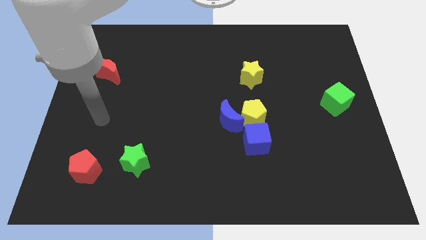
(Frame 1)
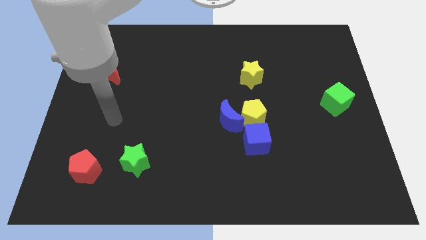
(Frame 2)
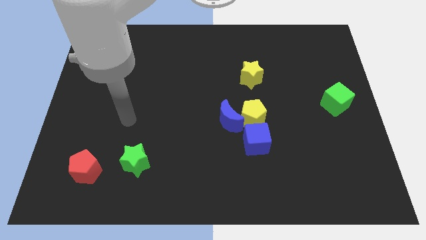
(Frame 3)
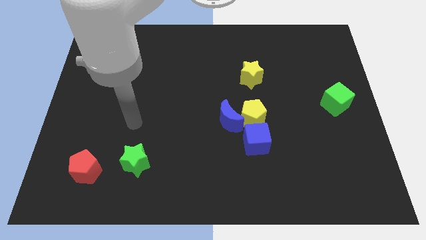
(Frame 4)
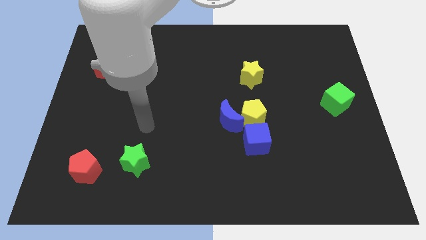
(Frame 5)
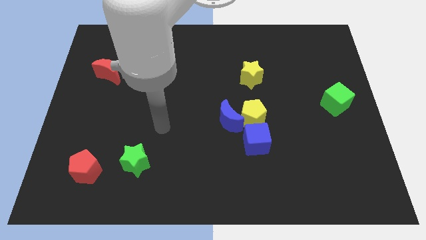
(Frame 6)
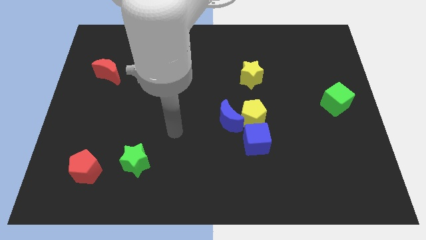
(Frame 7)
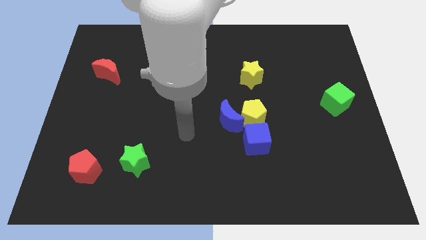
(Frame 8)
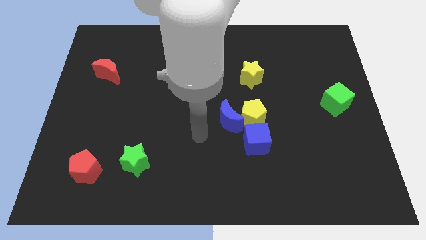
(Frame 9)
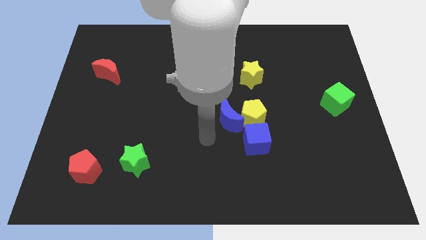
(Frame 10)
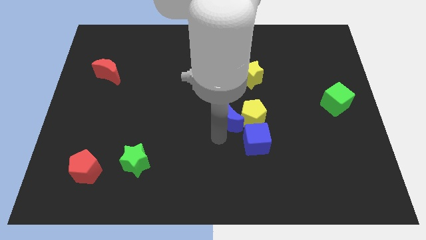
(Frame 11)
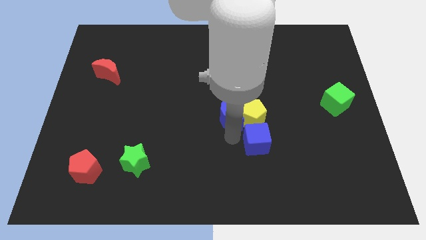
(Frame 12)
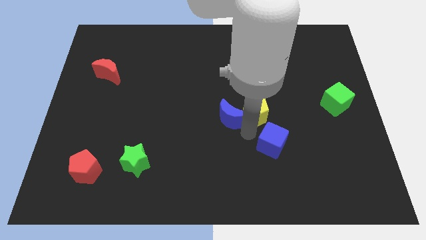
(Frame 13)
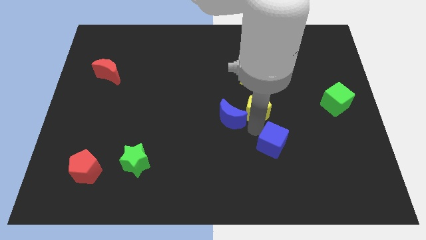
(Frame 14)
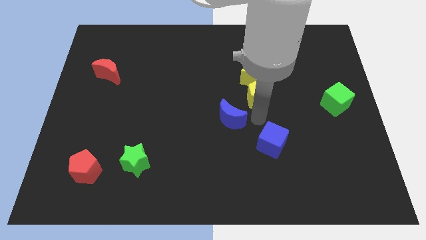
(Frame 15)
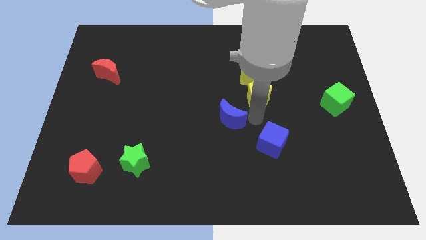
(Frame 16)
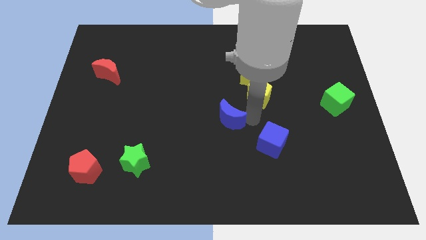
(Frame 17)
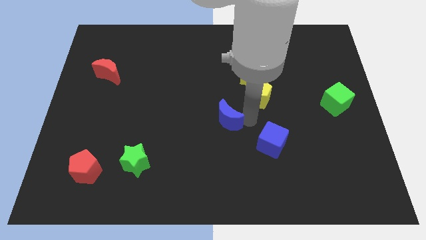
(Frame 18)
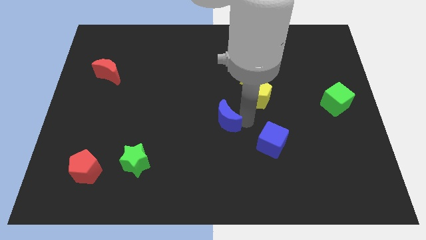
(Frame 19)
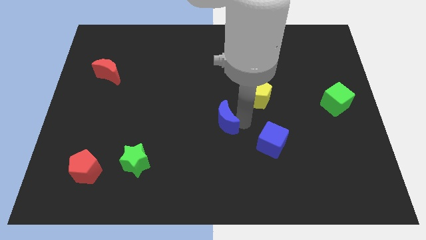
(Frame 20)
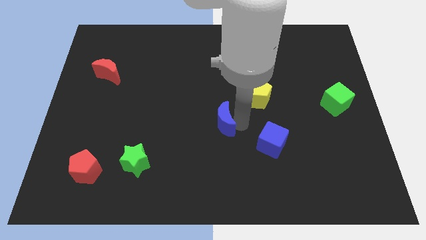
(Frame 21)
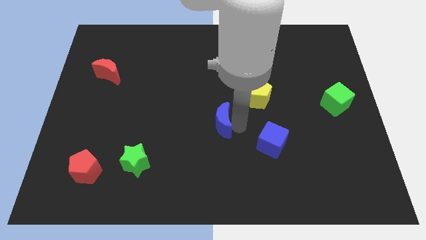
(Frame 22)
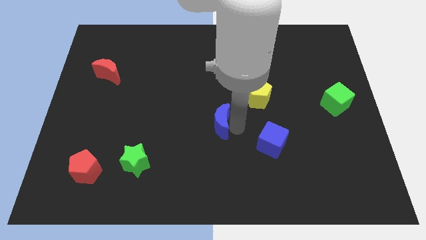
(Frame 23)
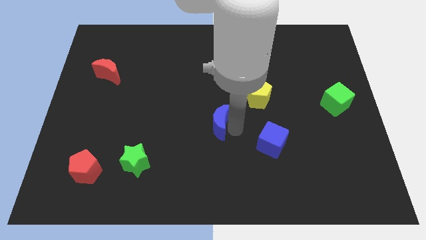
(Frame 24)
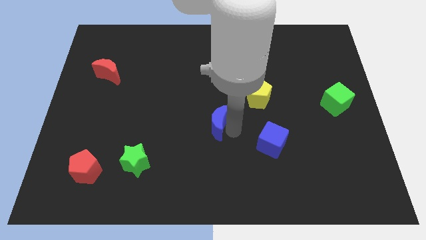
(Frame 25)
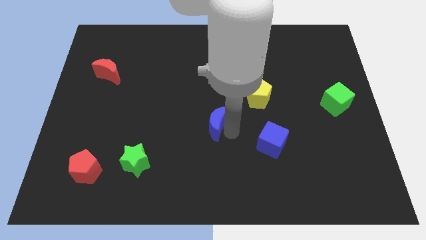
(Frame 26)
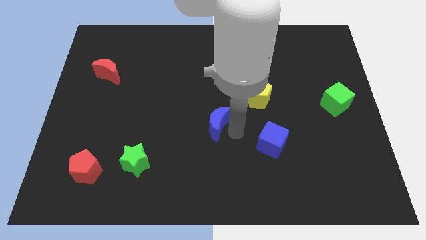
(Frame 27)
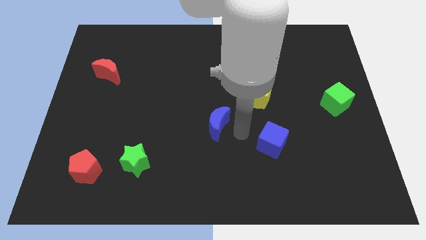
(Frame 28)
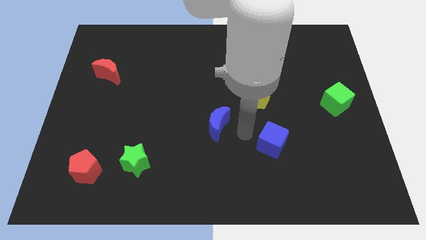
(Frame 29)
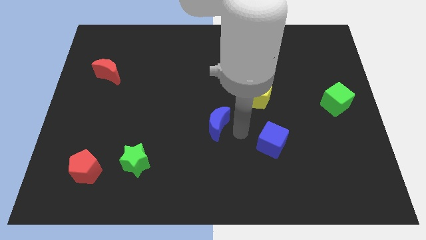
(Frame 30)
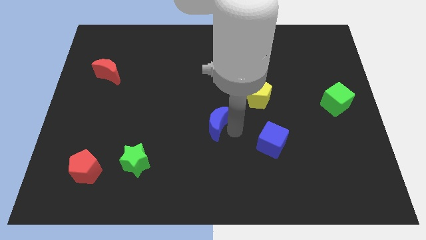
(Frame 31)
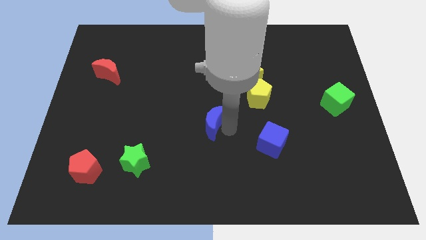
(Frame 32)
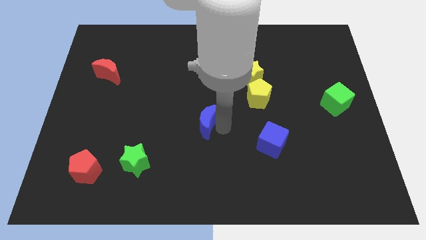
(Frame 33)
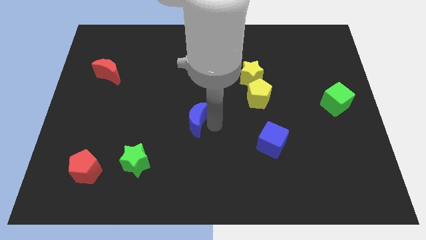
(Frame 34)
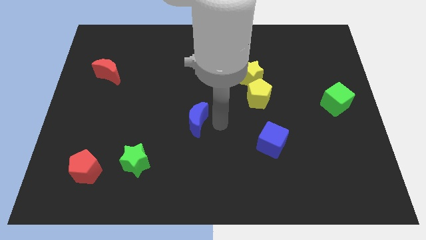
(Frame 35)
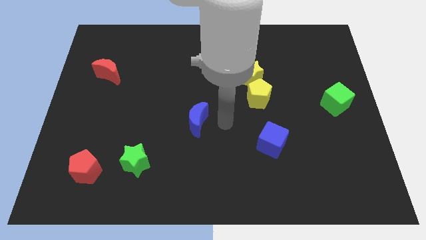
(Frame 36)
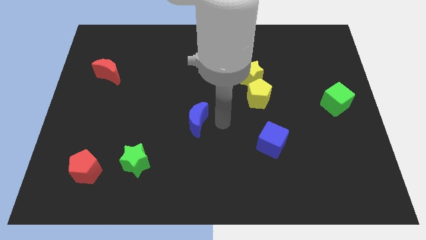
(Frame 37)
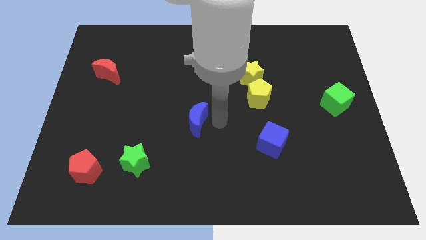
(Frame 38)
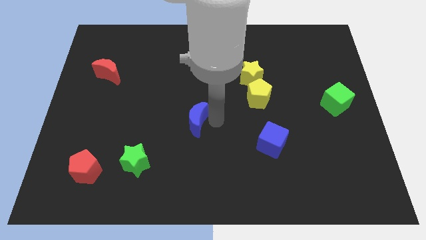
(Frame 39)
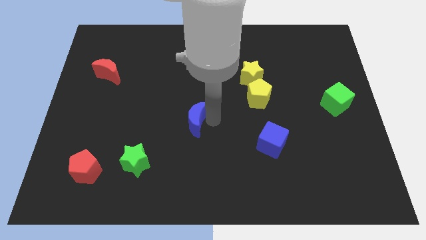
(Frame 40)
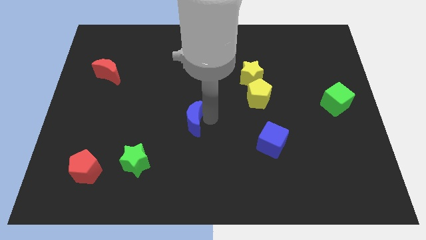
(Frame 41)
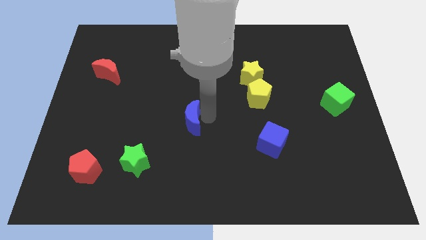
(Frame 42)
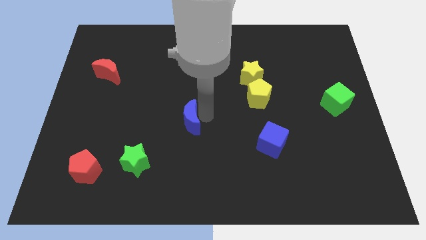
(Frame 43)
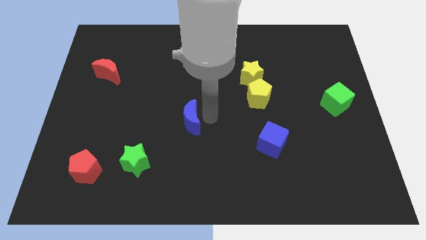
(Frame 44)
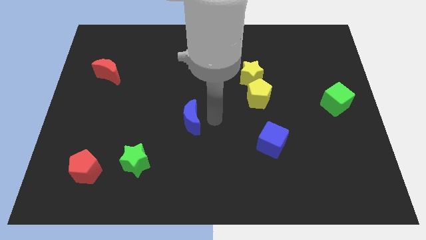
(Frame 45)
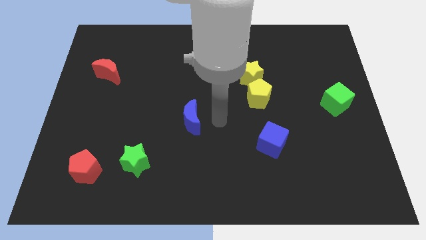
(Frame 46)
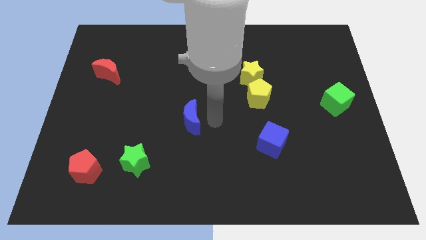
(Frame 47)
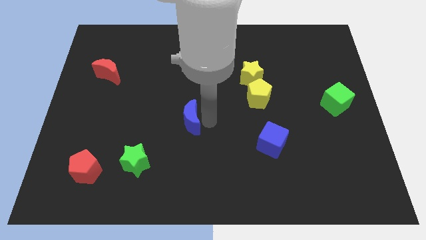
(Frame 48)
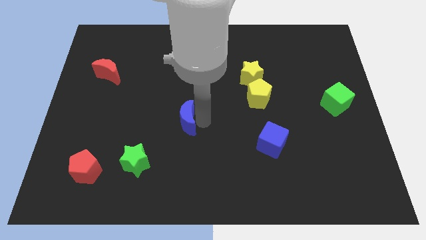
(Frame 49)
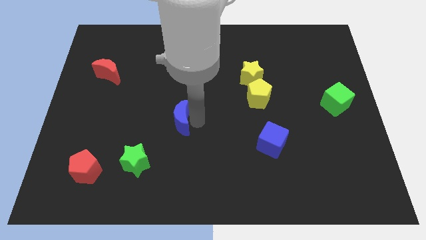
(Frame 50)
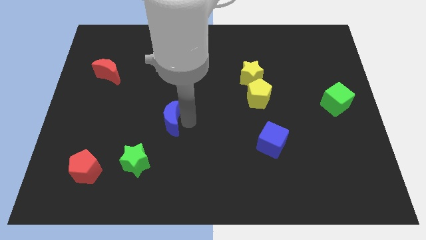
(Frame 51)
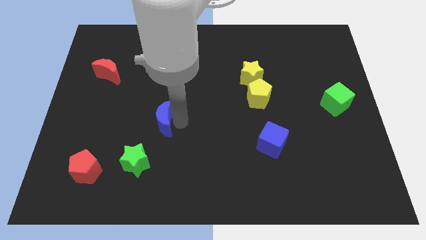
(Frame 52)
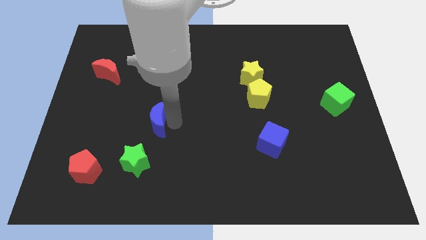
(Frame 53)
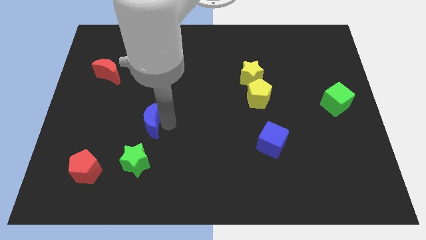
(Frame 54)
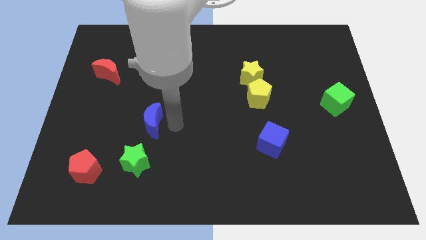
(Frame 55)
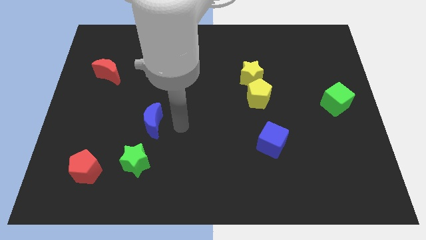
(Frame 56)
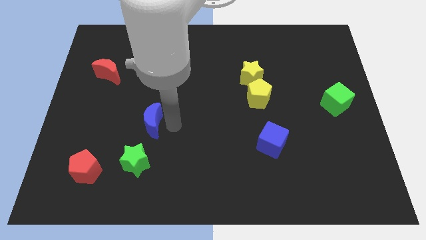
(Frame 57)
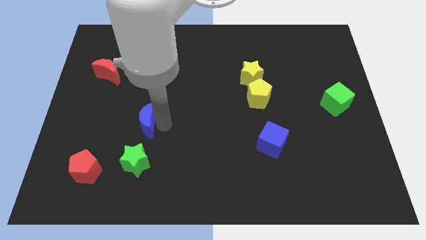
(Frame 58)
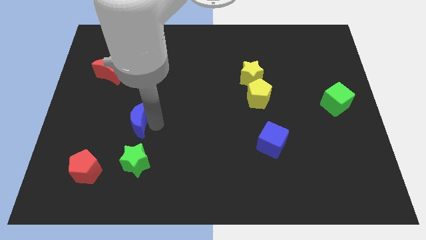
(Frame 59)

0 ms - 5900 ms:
slide the blue moon to the left

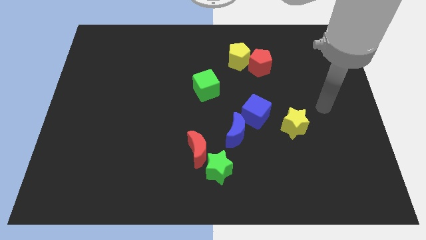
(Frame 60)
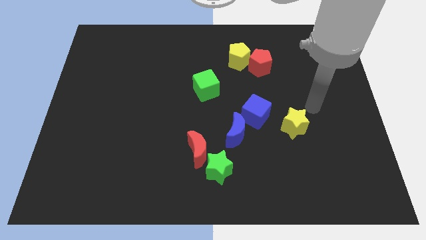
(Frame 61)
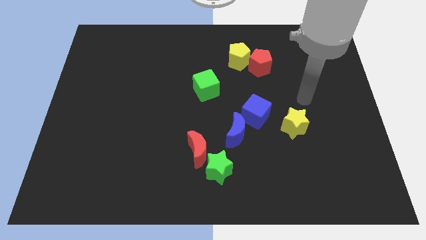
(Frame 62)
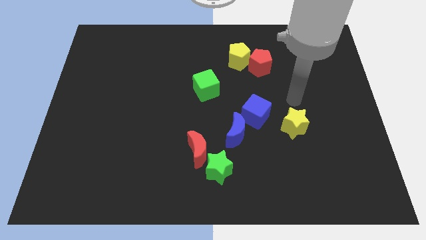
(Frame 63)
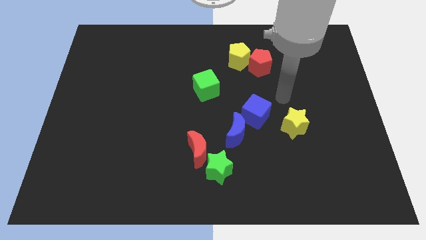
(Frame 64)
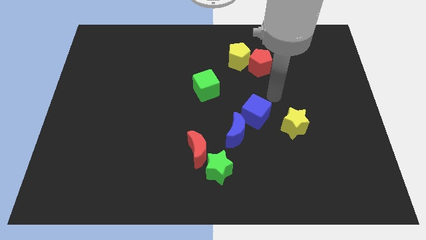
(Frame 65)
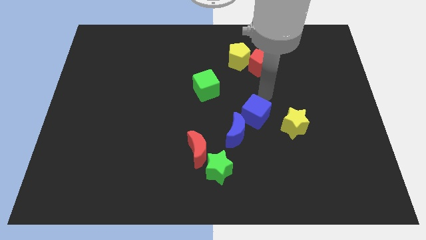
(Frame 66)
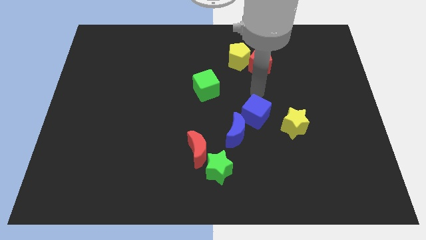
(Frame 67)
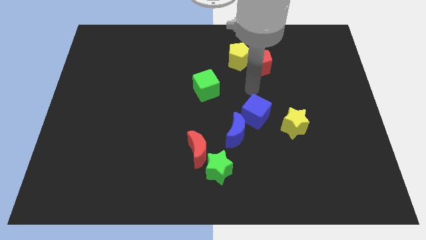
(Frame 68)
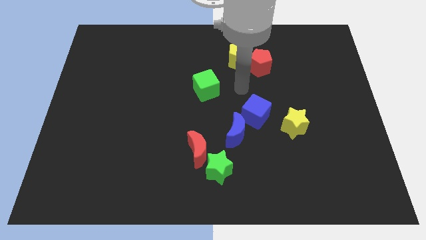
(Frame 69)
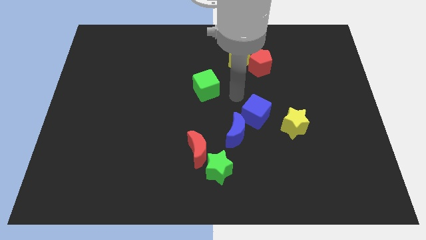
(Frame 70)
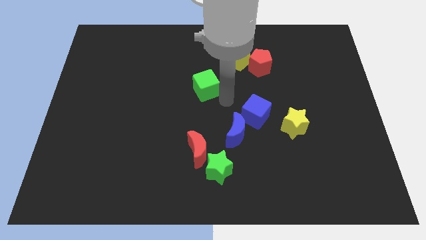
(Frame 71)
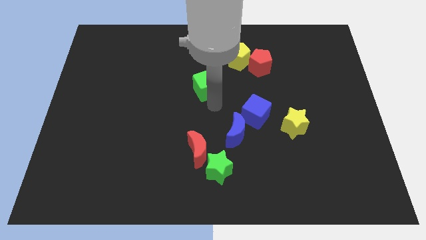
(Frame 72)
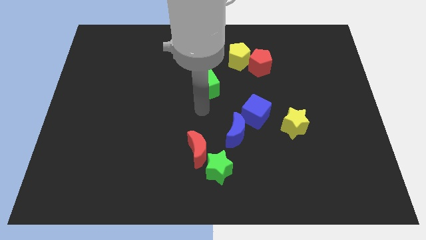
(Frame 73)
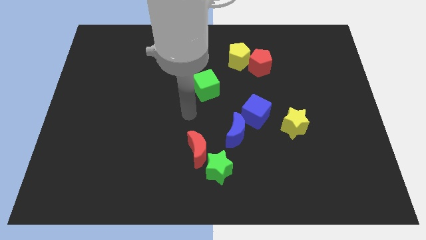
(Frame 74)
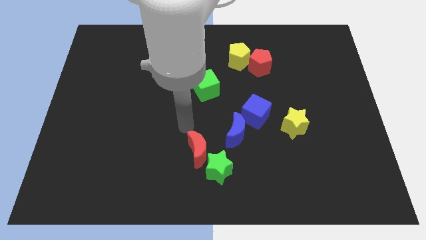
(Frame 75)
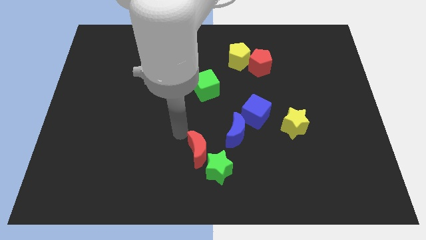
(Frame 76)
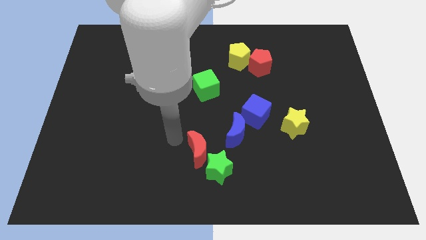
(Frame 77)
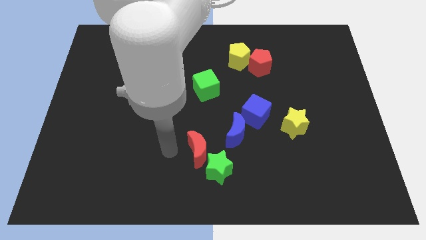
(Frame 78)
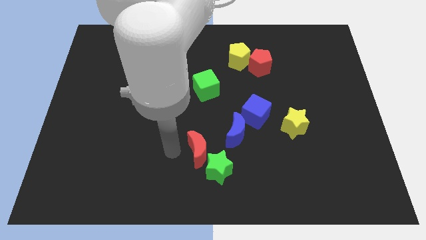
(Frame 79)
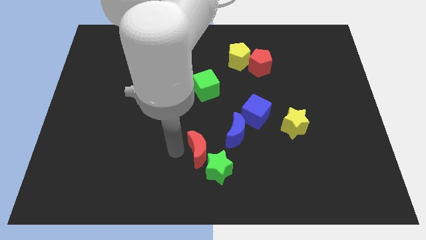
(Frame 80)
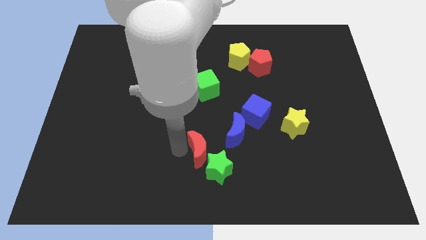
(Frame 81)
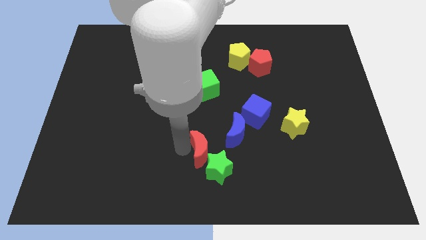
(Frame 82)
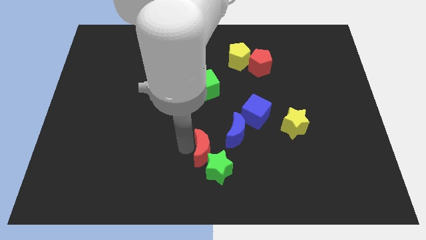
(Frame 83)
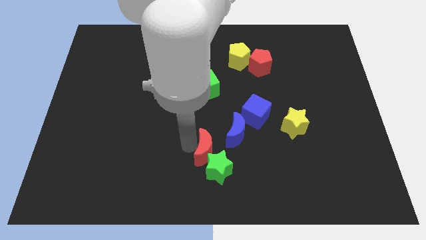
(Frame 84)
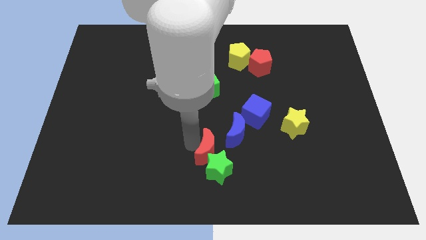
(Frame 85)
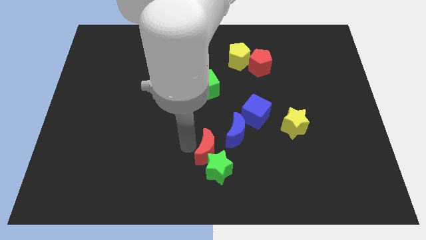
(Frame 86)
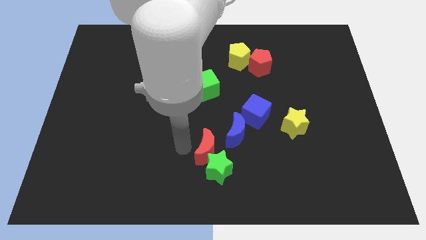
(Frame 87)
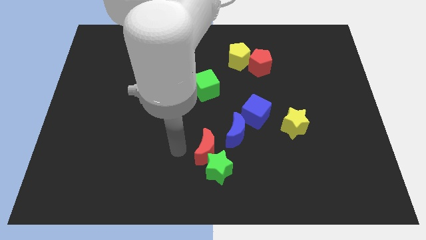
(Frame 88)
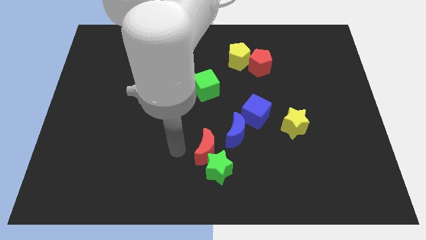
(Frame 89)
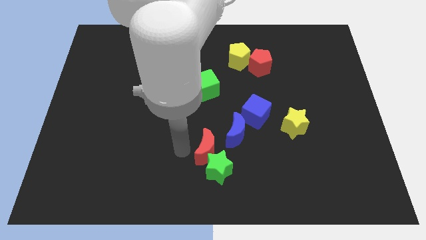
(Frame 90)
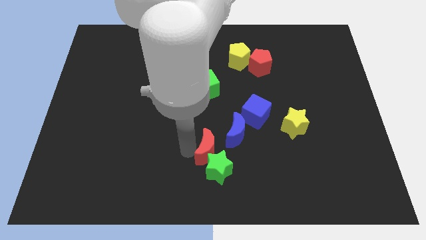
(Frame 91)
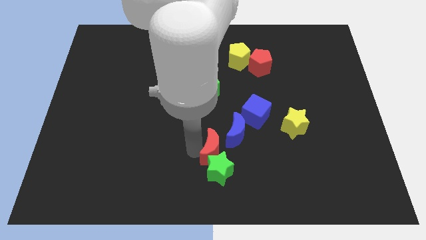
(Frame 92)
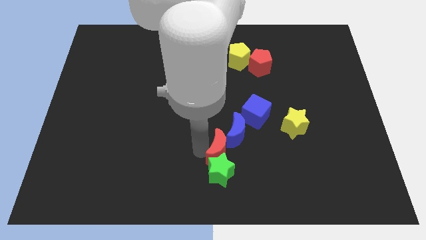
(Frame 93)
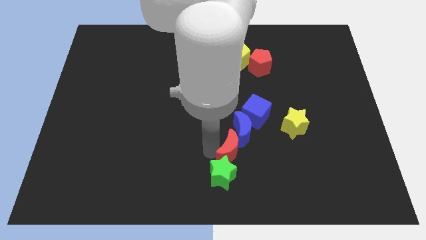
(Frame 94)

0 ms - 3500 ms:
slide the red moon slightly right
